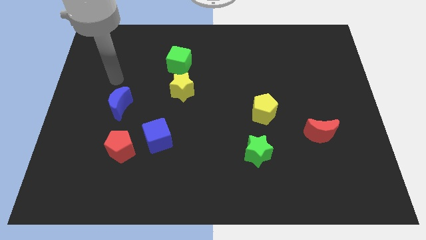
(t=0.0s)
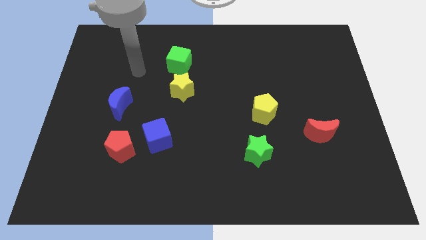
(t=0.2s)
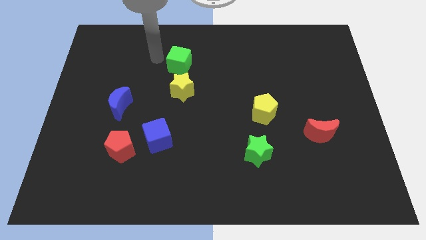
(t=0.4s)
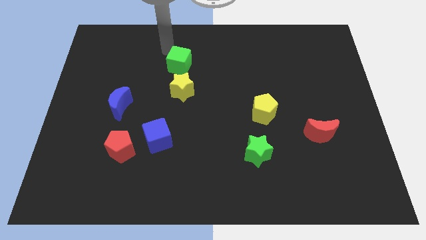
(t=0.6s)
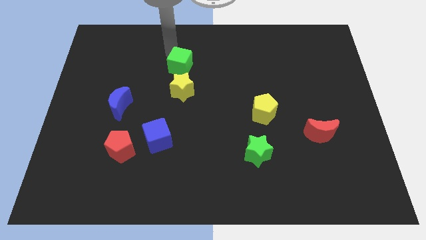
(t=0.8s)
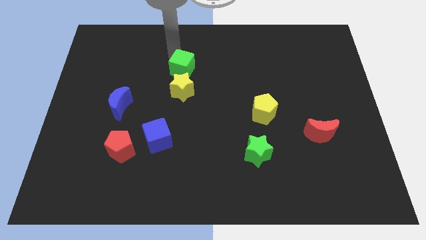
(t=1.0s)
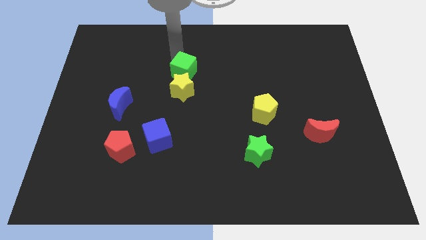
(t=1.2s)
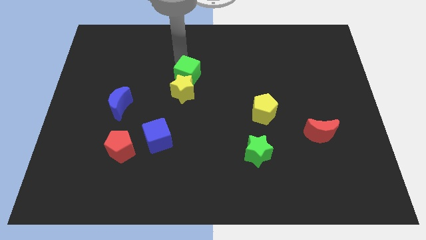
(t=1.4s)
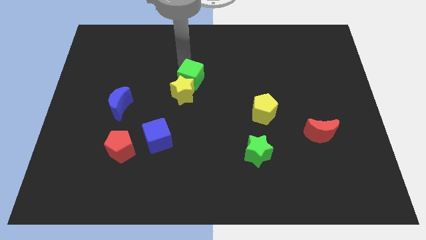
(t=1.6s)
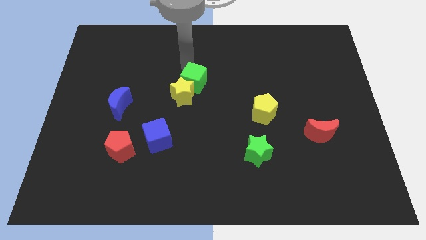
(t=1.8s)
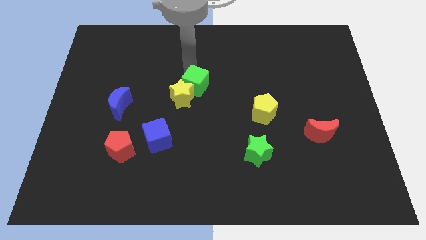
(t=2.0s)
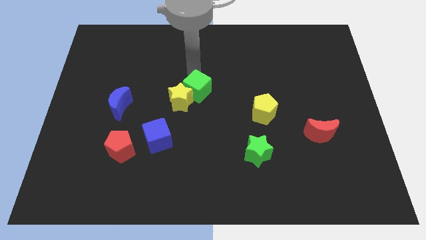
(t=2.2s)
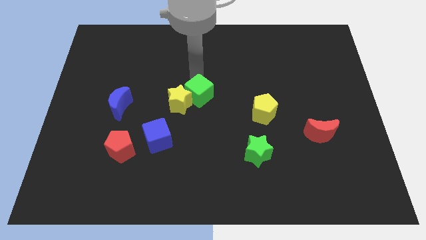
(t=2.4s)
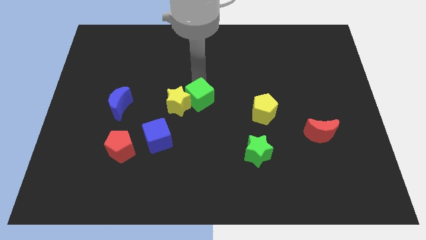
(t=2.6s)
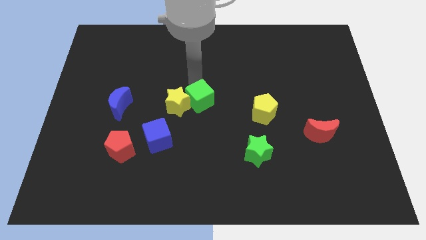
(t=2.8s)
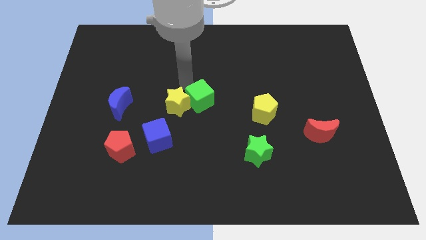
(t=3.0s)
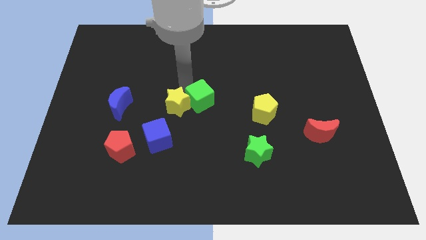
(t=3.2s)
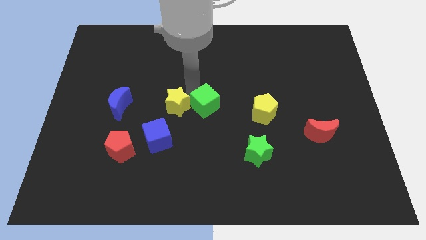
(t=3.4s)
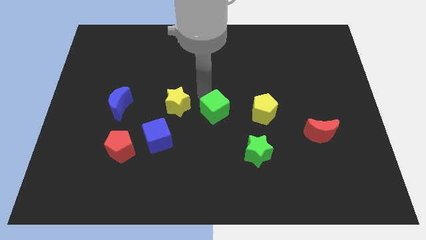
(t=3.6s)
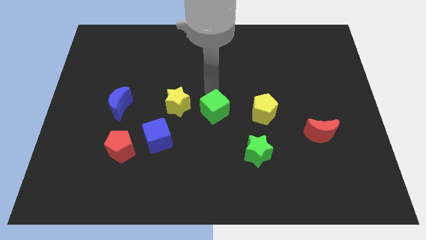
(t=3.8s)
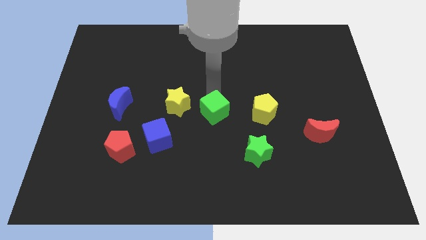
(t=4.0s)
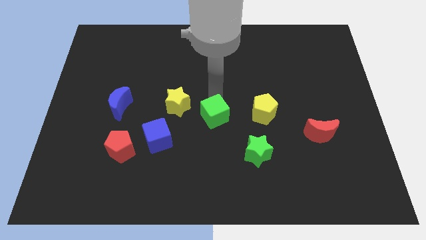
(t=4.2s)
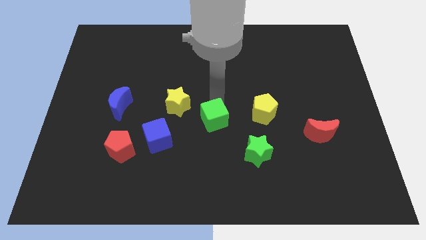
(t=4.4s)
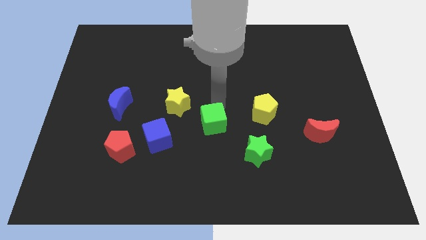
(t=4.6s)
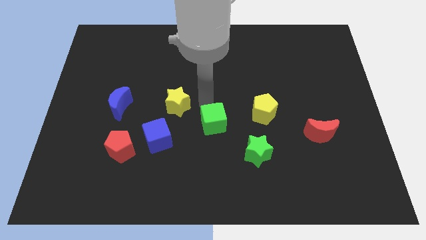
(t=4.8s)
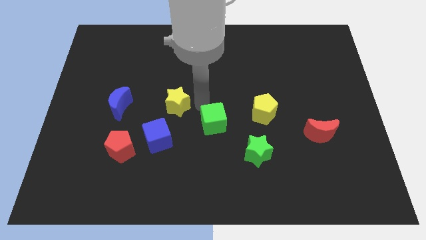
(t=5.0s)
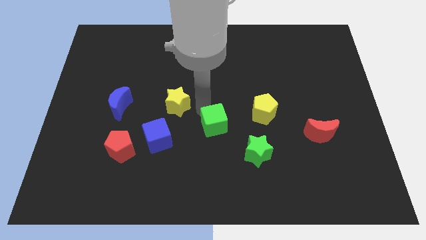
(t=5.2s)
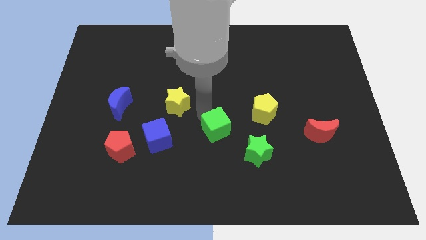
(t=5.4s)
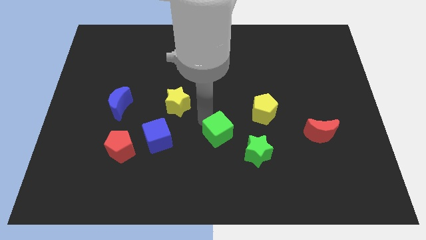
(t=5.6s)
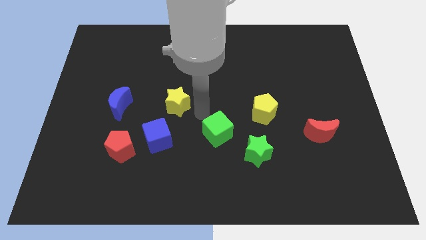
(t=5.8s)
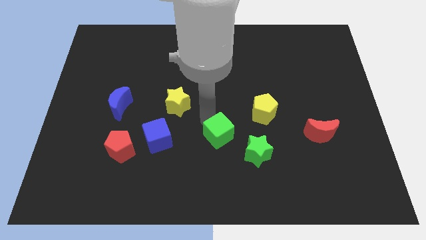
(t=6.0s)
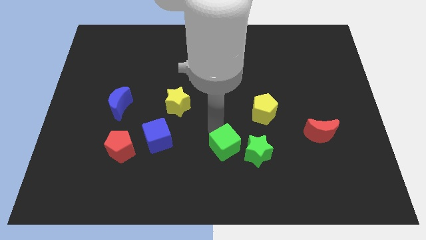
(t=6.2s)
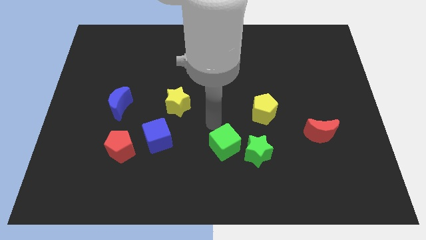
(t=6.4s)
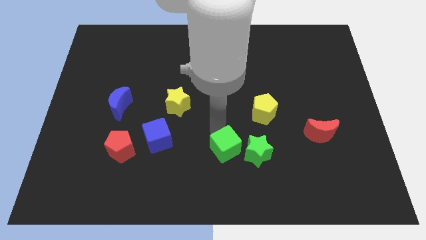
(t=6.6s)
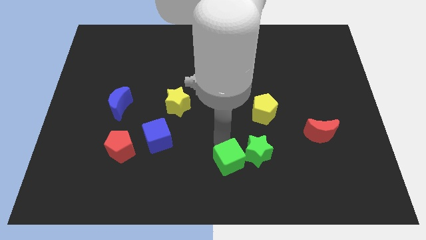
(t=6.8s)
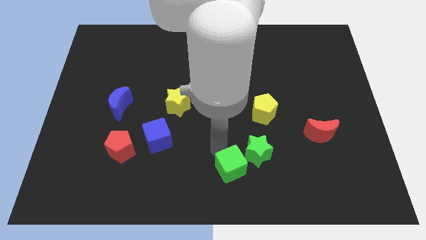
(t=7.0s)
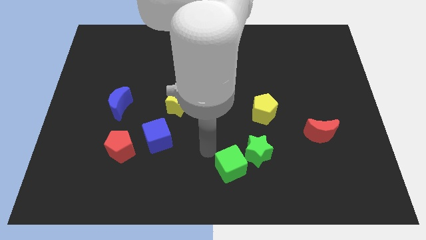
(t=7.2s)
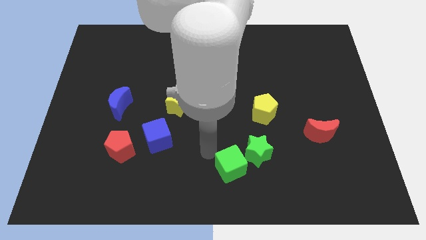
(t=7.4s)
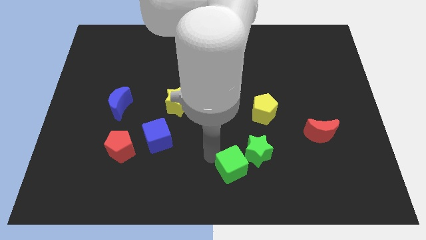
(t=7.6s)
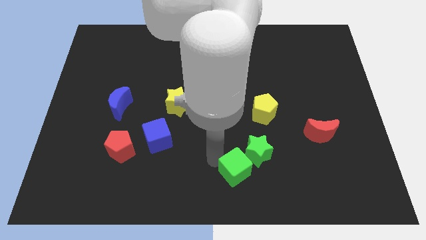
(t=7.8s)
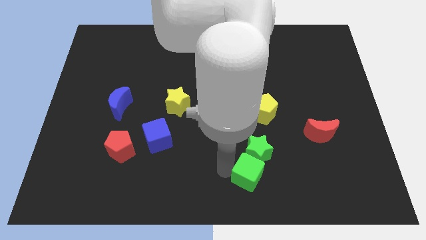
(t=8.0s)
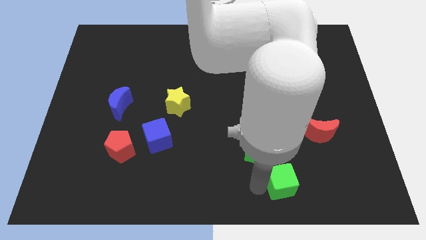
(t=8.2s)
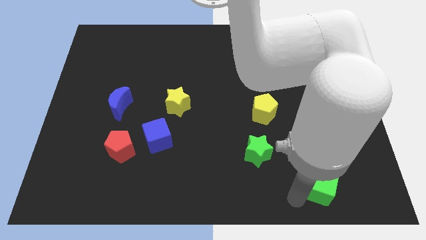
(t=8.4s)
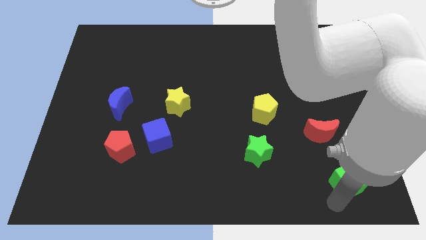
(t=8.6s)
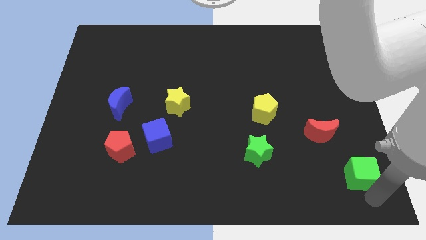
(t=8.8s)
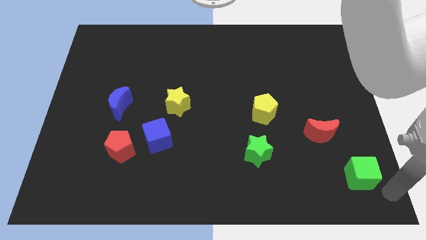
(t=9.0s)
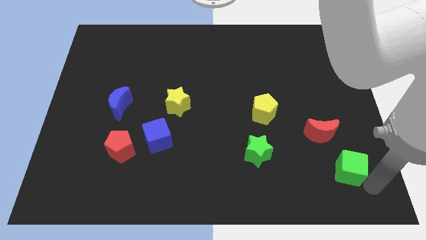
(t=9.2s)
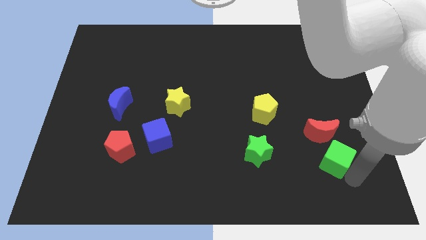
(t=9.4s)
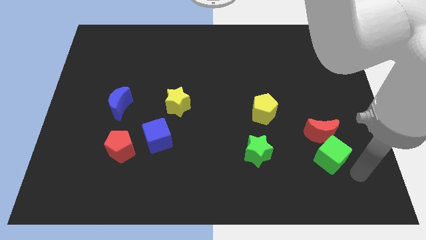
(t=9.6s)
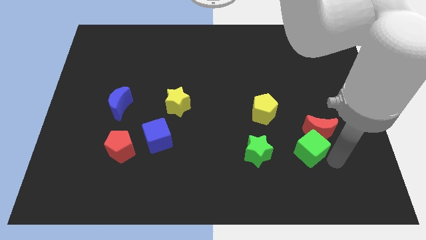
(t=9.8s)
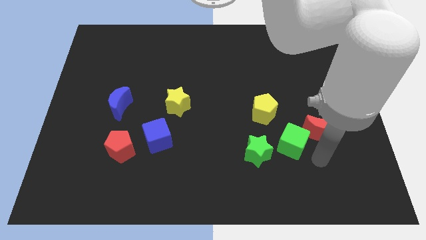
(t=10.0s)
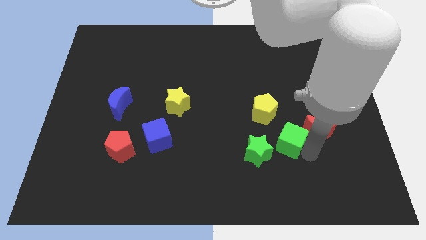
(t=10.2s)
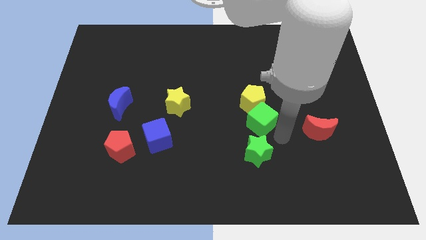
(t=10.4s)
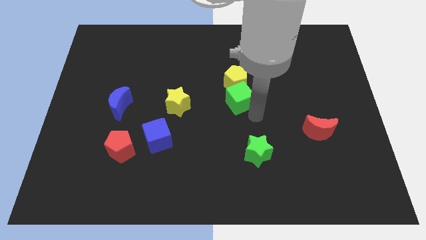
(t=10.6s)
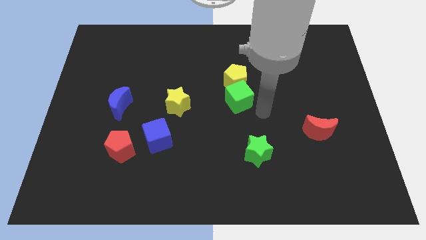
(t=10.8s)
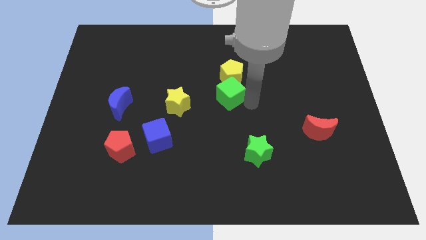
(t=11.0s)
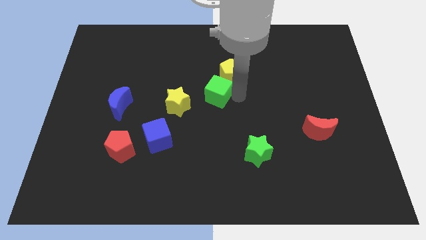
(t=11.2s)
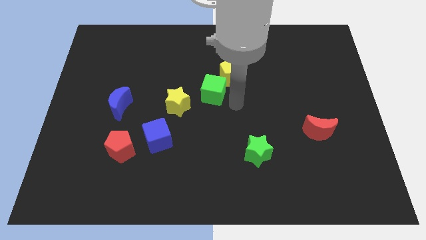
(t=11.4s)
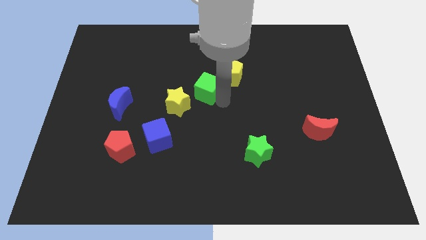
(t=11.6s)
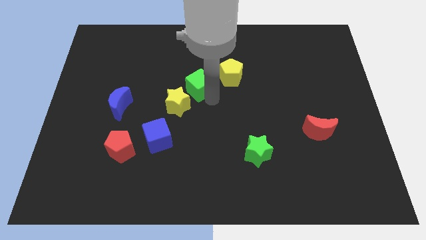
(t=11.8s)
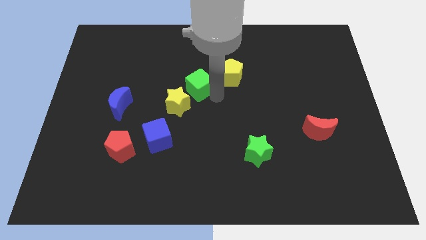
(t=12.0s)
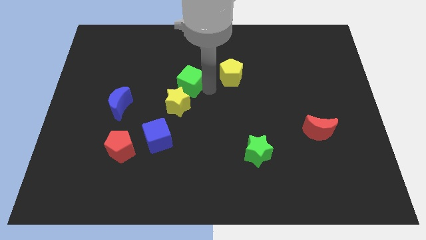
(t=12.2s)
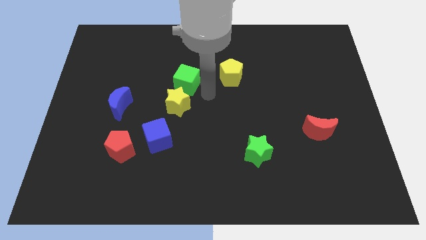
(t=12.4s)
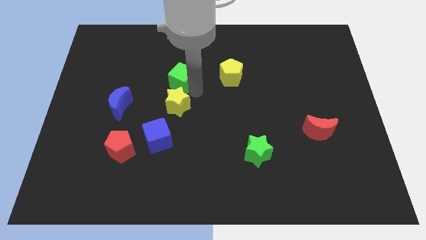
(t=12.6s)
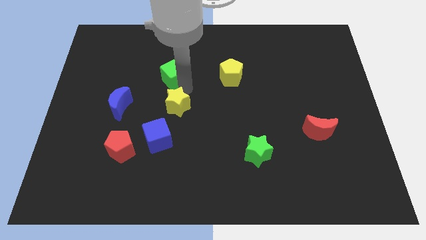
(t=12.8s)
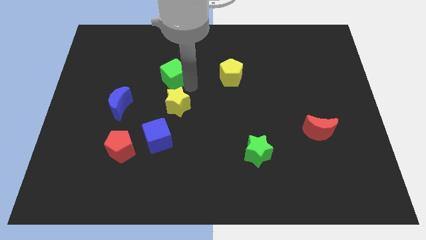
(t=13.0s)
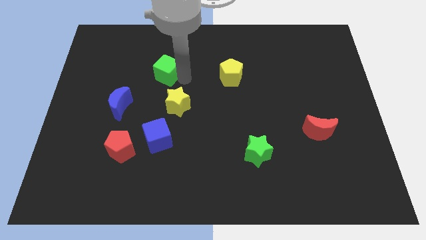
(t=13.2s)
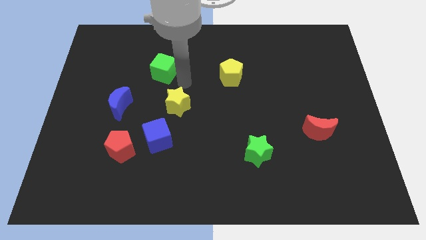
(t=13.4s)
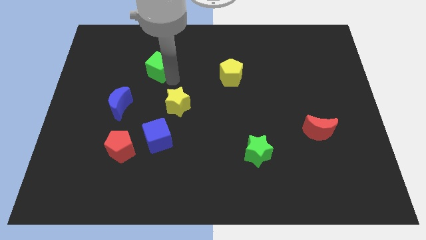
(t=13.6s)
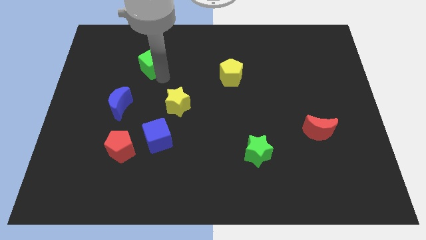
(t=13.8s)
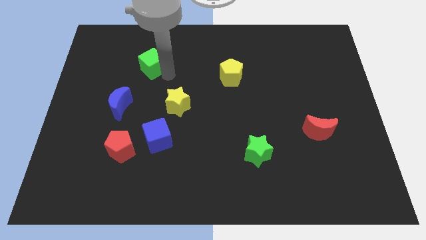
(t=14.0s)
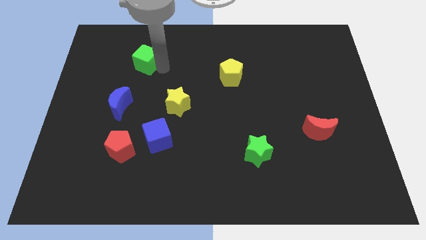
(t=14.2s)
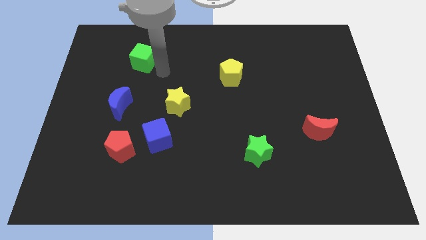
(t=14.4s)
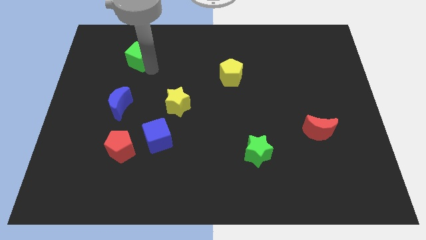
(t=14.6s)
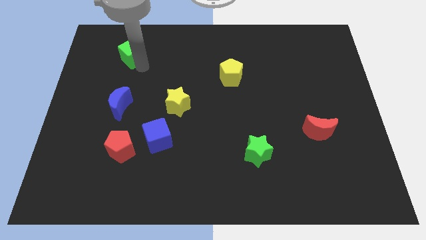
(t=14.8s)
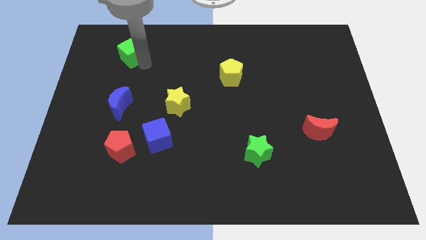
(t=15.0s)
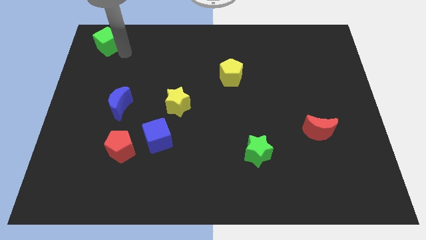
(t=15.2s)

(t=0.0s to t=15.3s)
slide the green cube to the top left of the board
